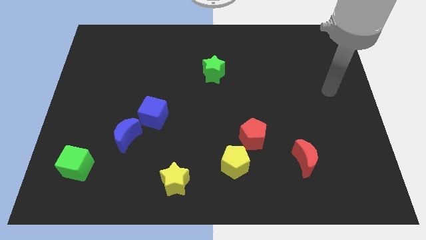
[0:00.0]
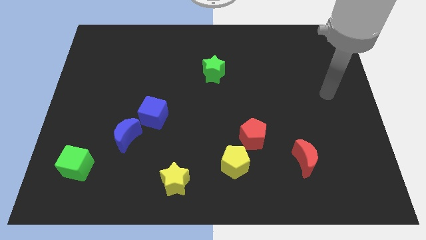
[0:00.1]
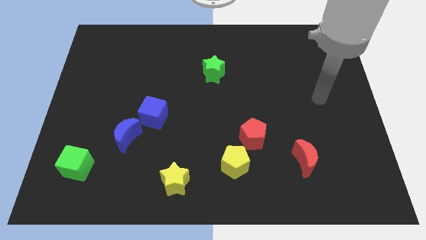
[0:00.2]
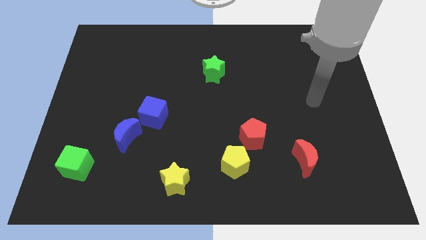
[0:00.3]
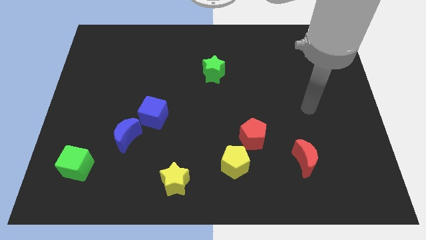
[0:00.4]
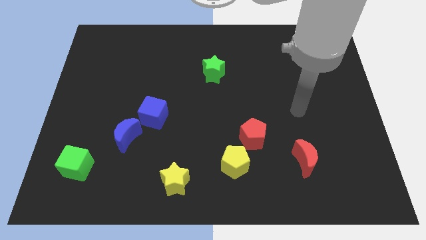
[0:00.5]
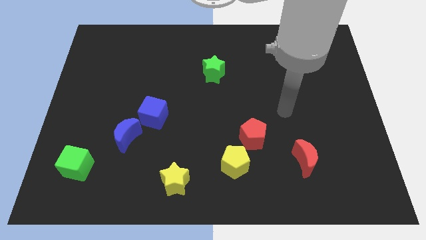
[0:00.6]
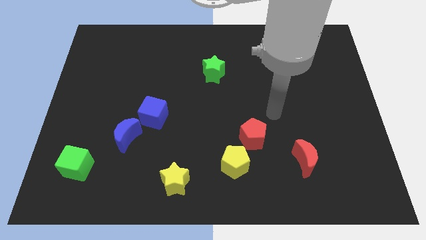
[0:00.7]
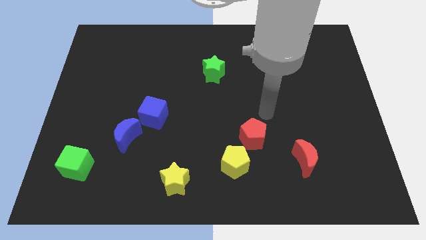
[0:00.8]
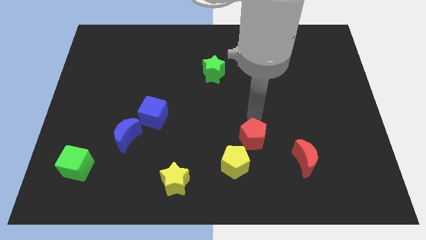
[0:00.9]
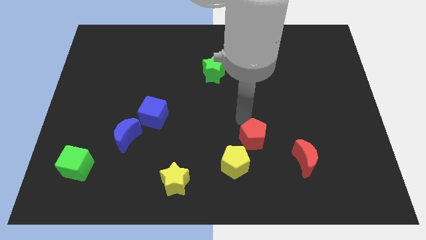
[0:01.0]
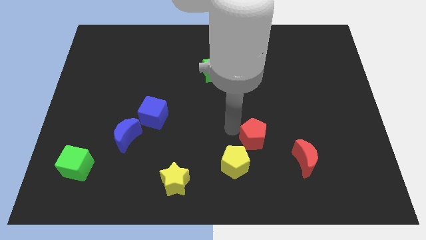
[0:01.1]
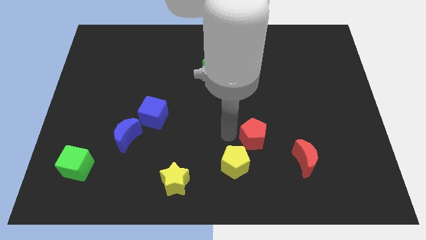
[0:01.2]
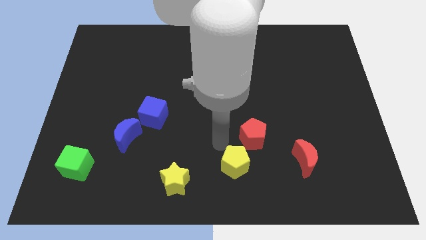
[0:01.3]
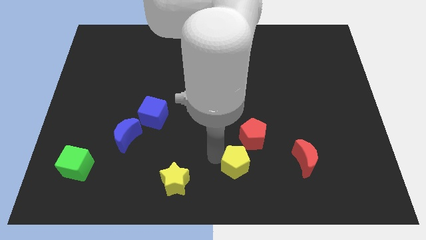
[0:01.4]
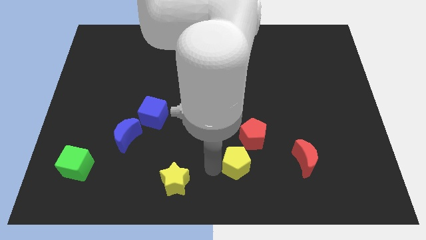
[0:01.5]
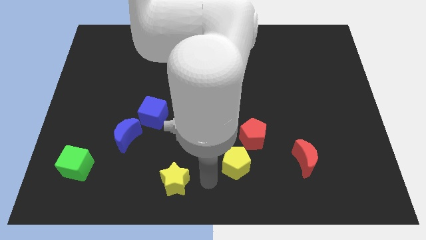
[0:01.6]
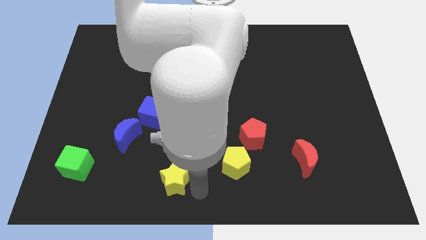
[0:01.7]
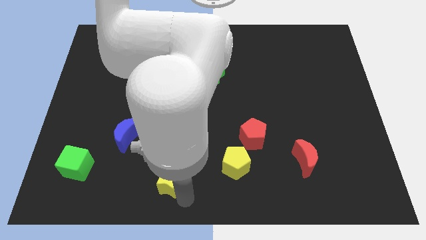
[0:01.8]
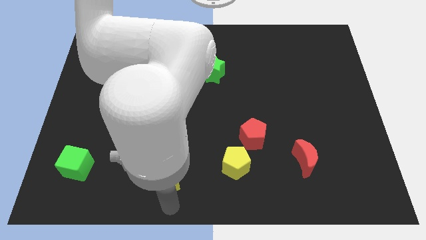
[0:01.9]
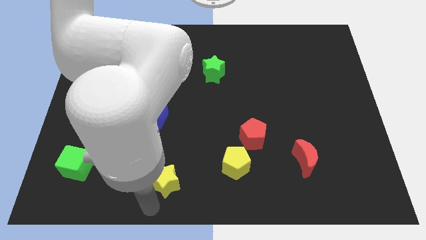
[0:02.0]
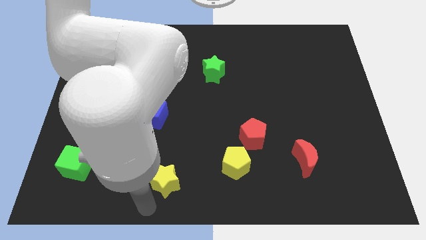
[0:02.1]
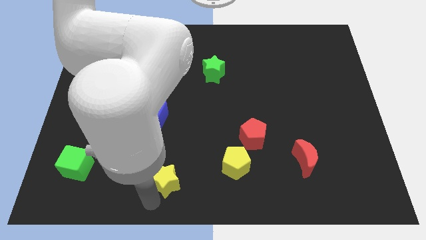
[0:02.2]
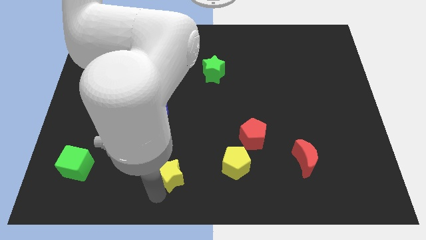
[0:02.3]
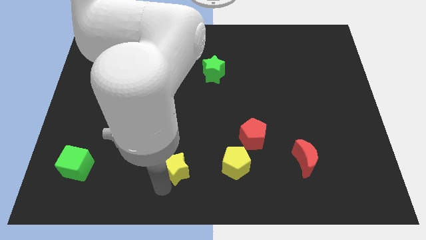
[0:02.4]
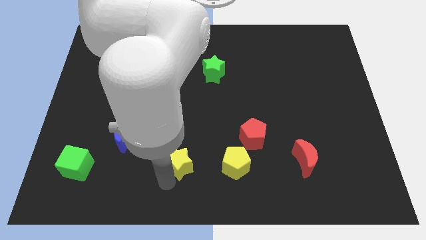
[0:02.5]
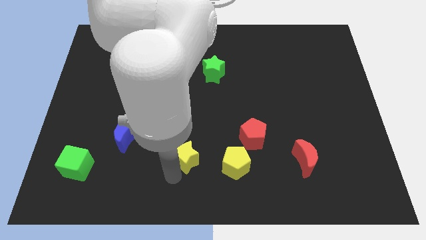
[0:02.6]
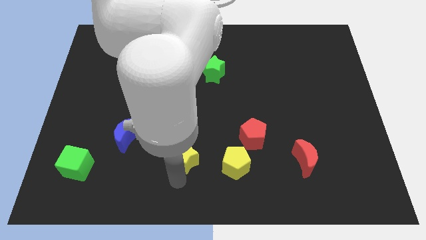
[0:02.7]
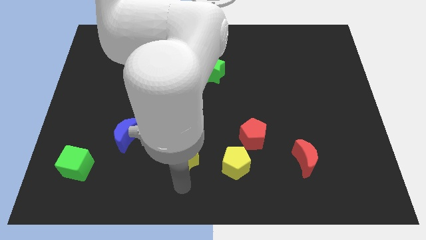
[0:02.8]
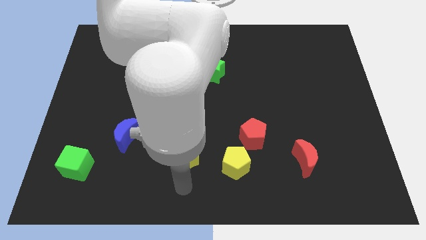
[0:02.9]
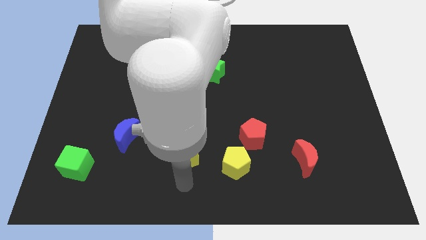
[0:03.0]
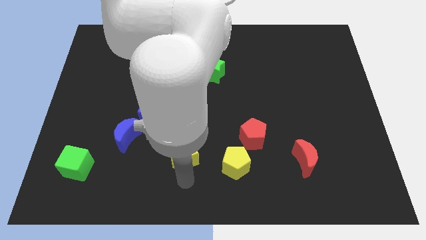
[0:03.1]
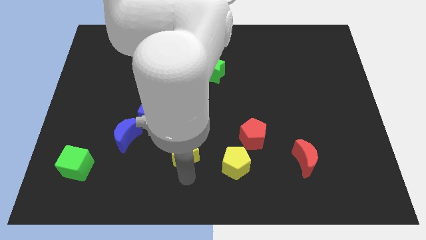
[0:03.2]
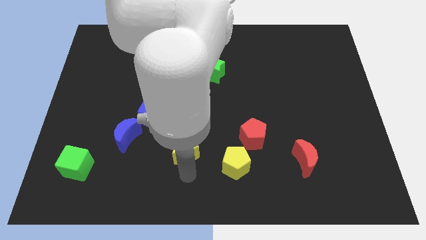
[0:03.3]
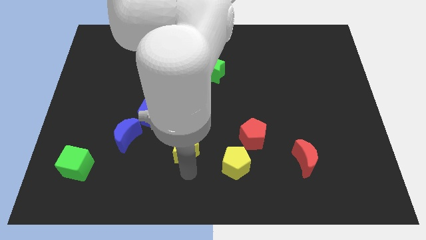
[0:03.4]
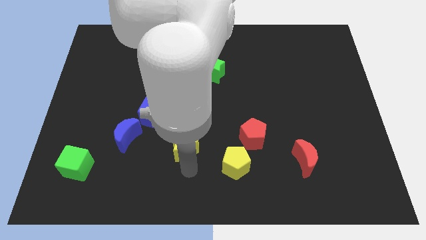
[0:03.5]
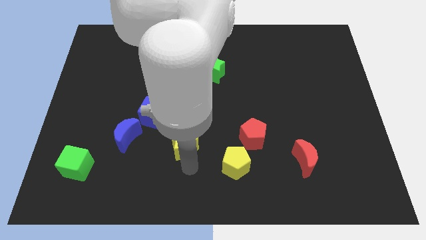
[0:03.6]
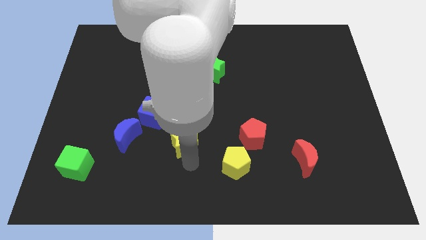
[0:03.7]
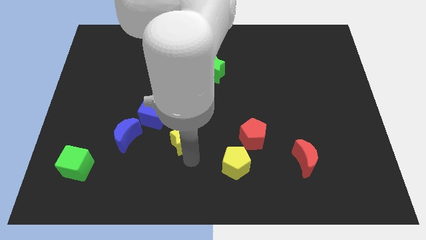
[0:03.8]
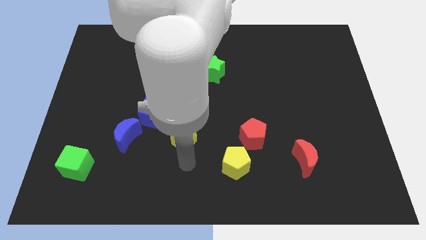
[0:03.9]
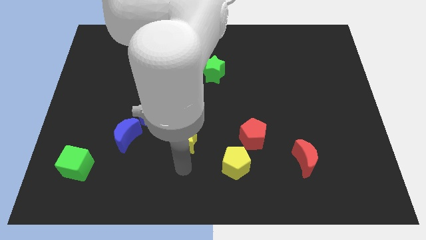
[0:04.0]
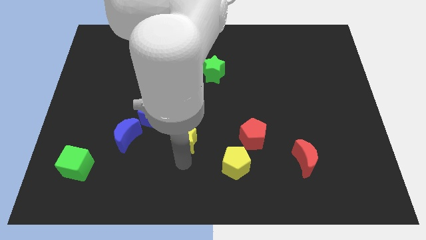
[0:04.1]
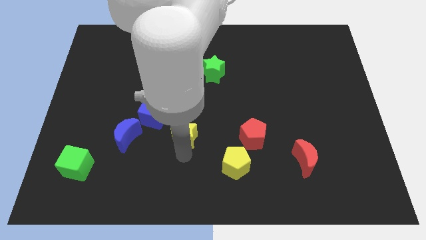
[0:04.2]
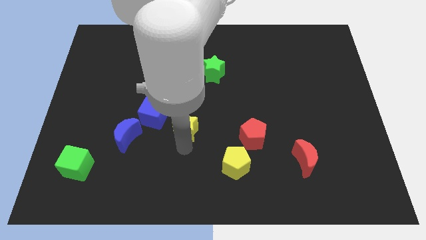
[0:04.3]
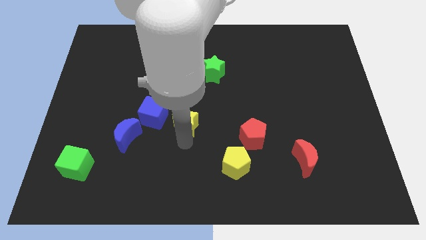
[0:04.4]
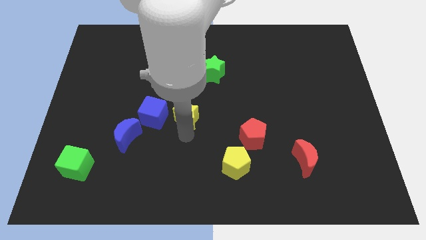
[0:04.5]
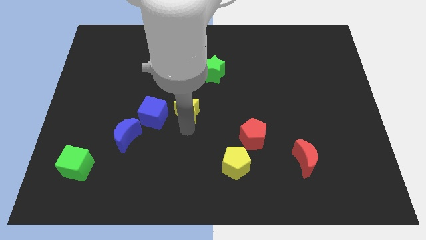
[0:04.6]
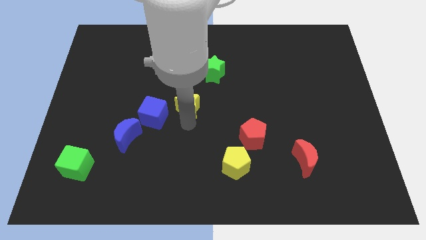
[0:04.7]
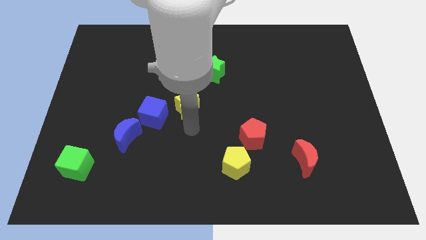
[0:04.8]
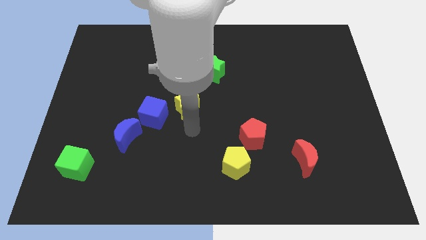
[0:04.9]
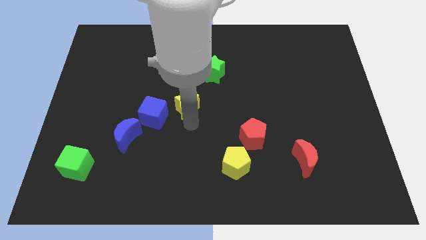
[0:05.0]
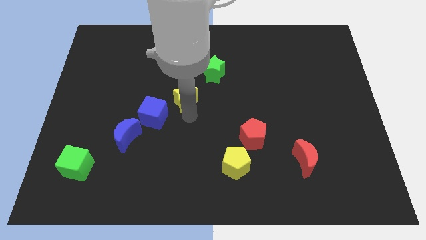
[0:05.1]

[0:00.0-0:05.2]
slide the yellow star up

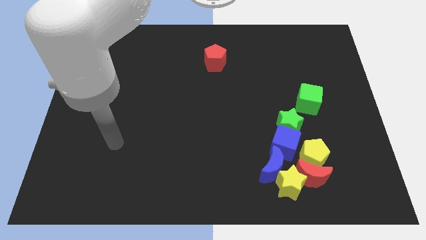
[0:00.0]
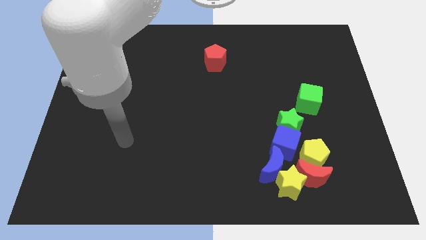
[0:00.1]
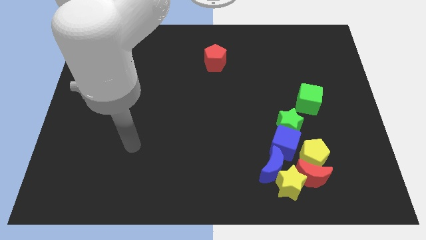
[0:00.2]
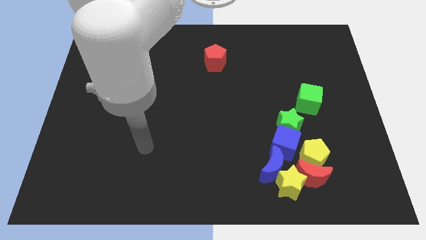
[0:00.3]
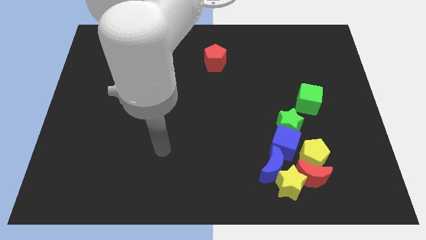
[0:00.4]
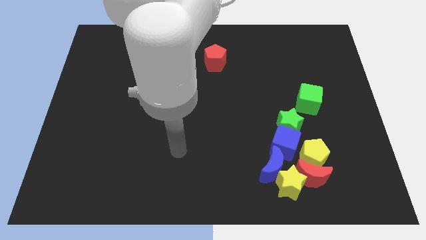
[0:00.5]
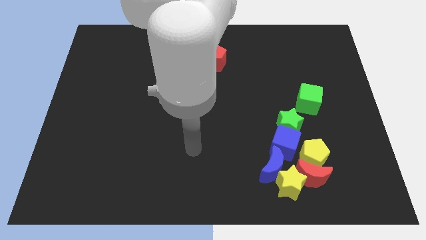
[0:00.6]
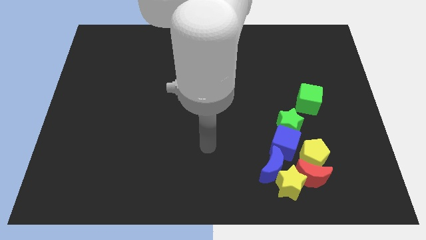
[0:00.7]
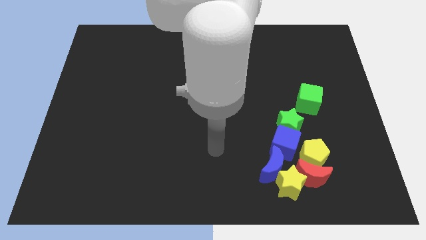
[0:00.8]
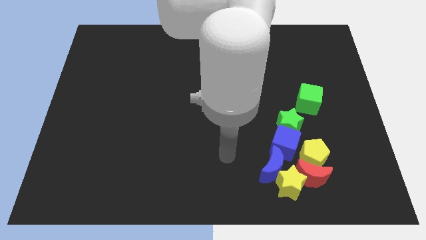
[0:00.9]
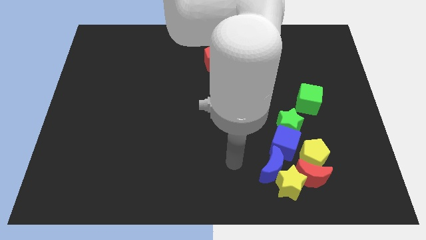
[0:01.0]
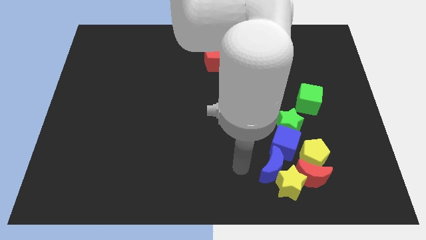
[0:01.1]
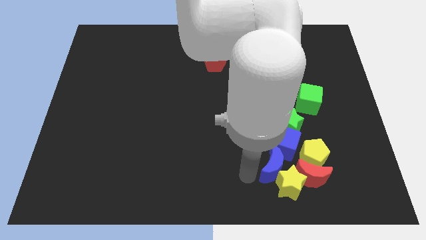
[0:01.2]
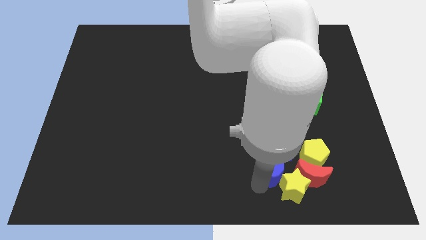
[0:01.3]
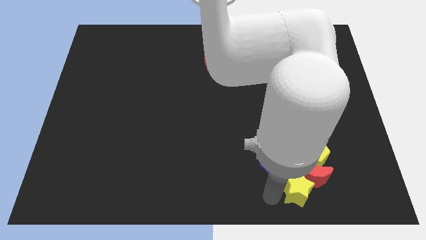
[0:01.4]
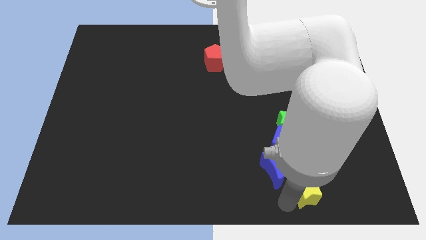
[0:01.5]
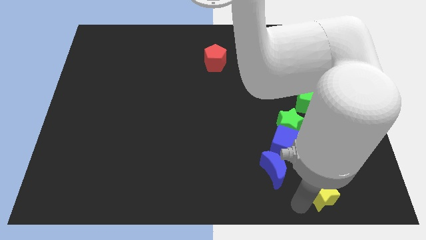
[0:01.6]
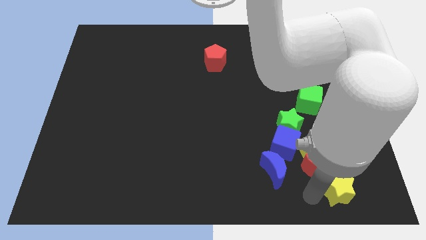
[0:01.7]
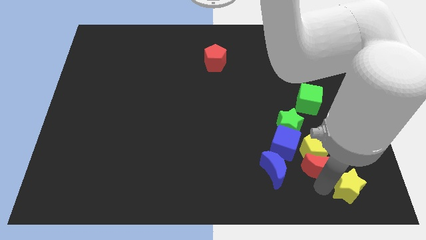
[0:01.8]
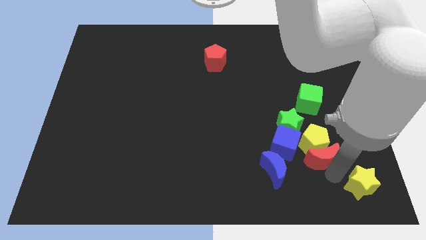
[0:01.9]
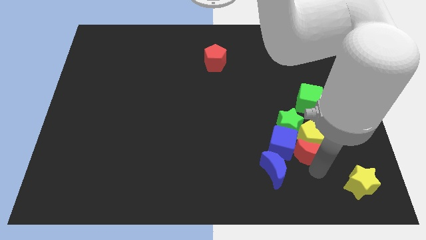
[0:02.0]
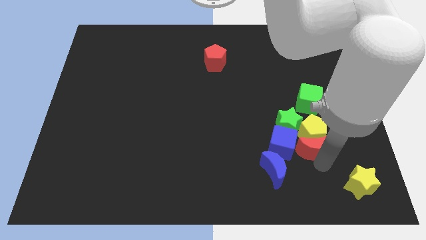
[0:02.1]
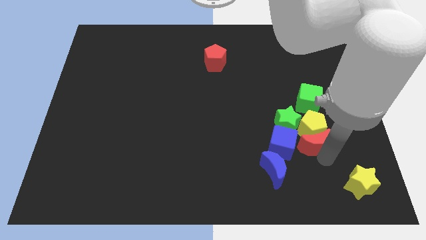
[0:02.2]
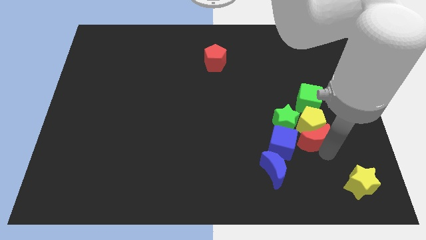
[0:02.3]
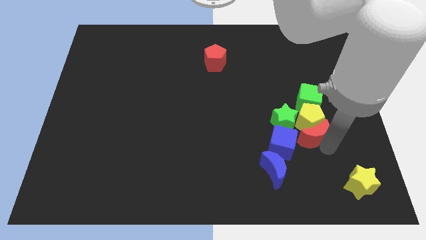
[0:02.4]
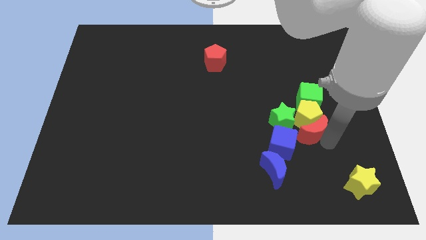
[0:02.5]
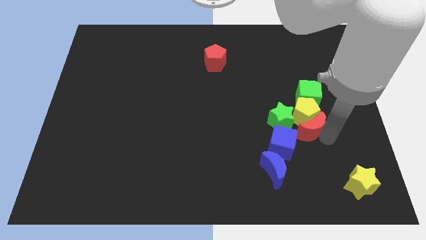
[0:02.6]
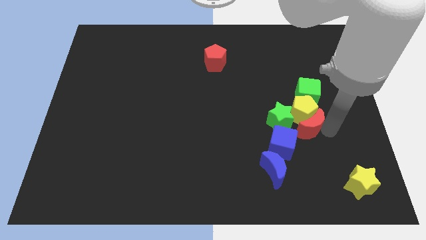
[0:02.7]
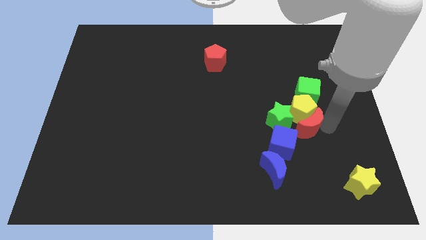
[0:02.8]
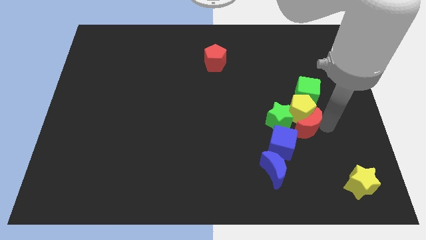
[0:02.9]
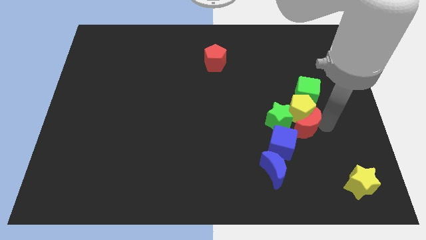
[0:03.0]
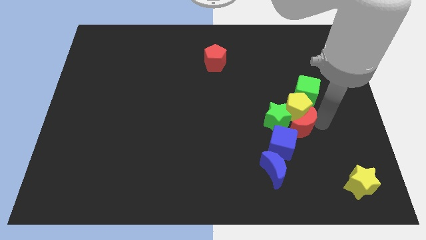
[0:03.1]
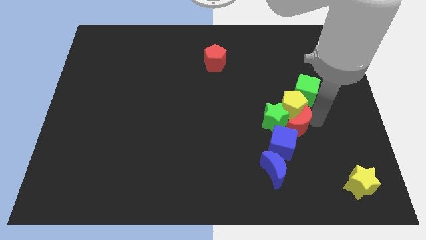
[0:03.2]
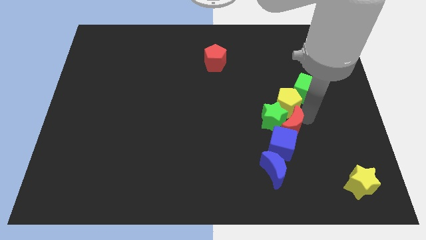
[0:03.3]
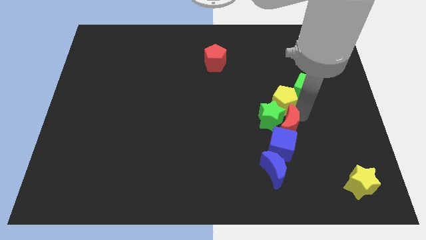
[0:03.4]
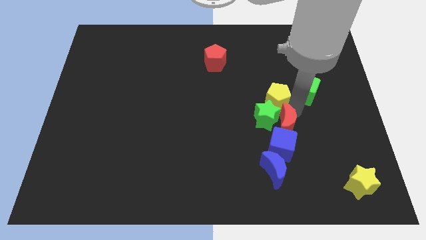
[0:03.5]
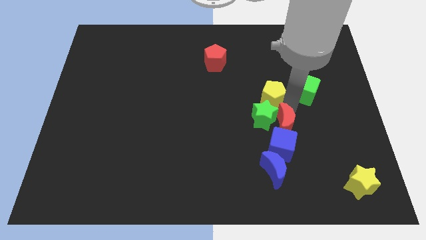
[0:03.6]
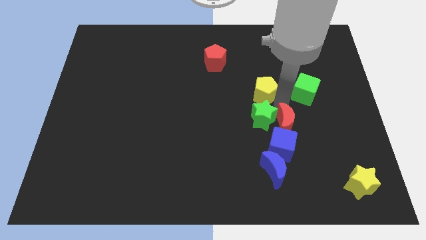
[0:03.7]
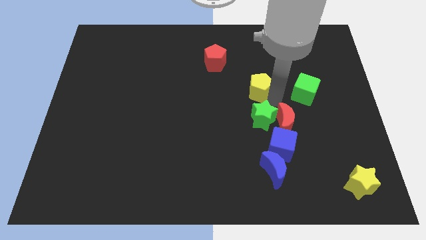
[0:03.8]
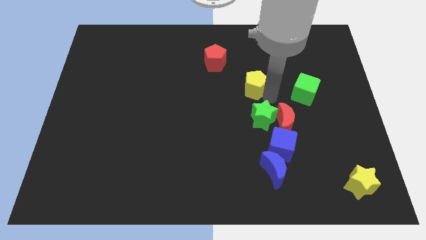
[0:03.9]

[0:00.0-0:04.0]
slide the yellow pentagon upwards and then left
